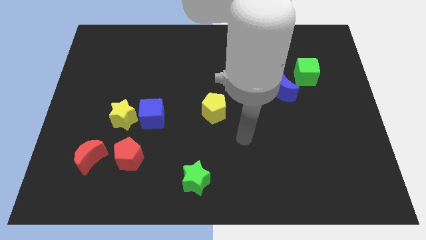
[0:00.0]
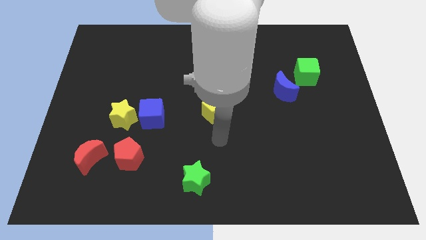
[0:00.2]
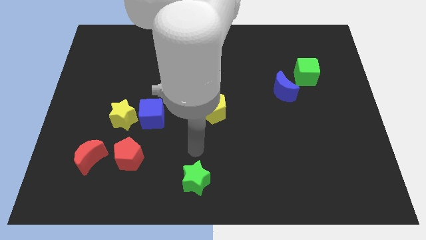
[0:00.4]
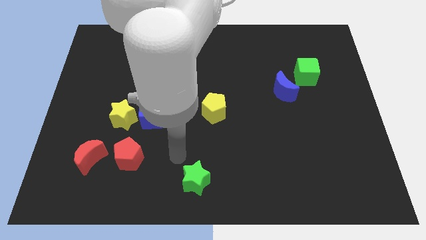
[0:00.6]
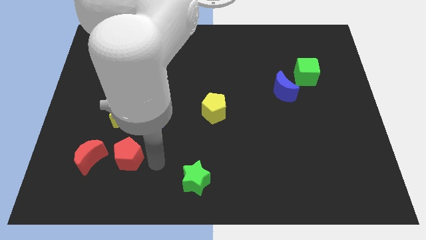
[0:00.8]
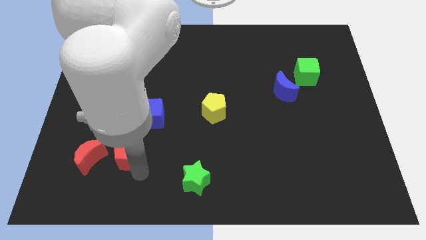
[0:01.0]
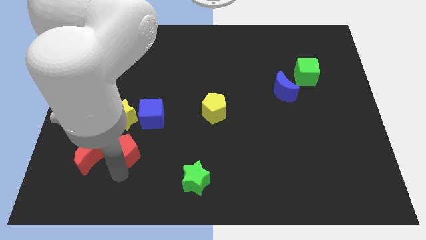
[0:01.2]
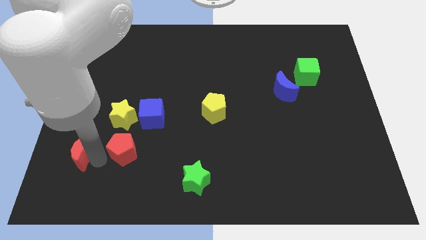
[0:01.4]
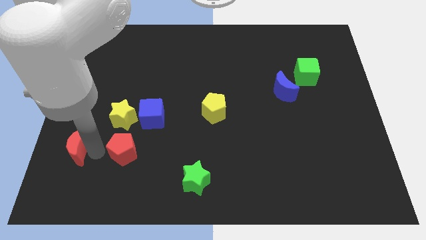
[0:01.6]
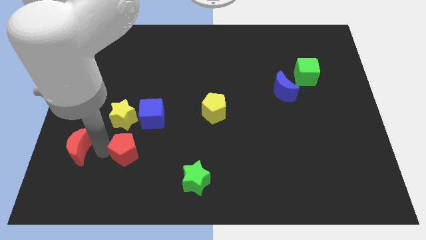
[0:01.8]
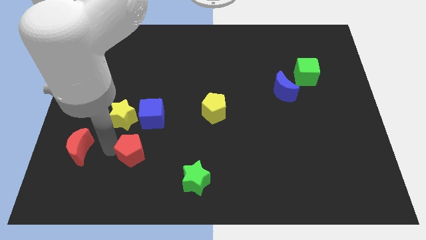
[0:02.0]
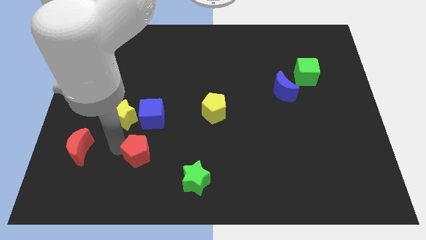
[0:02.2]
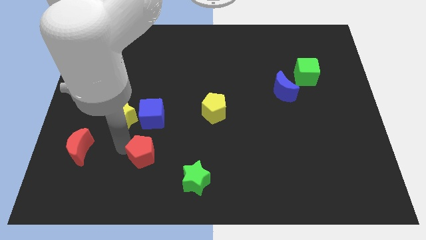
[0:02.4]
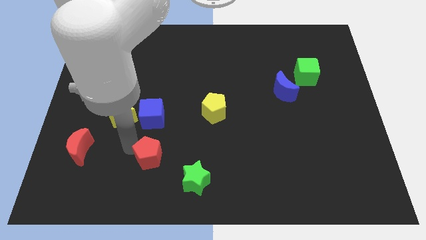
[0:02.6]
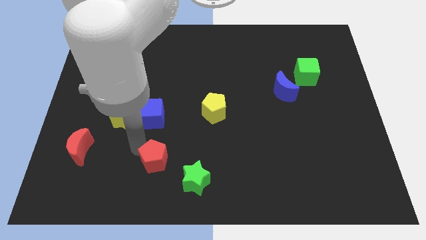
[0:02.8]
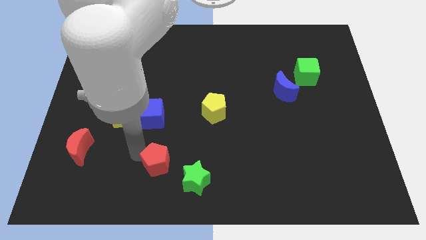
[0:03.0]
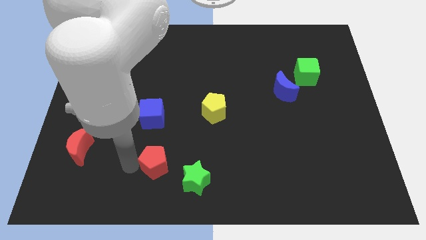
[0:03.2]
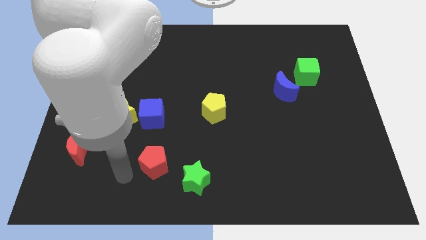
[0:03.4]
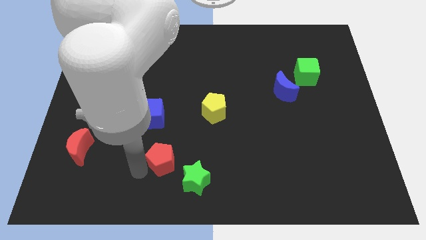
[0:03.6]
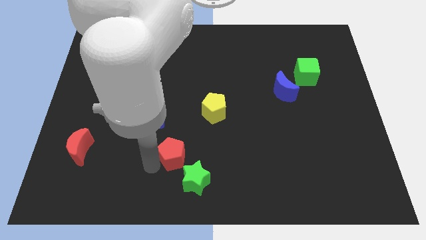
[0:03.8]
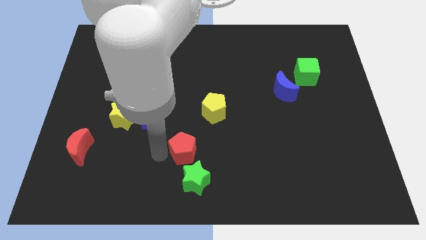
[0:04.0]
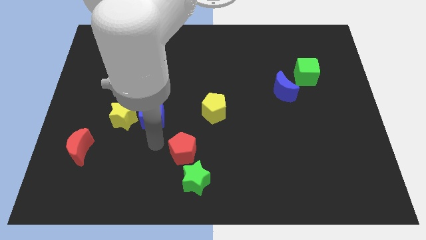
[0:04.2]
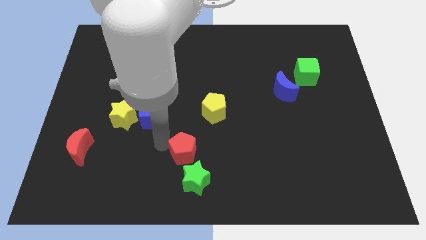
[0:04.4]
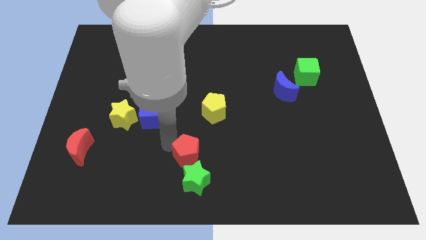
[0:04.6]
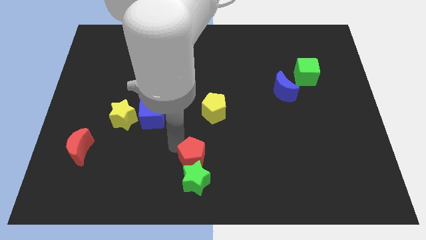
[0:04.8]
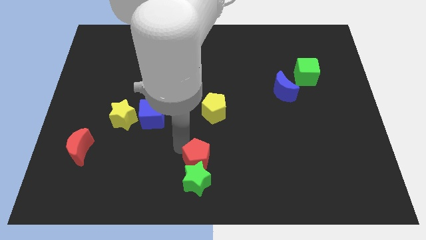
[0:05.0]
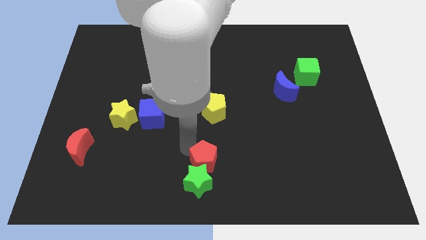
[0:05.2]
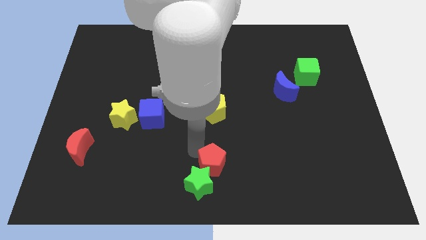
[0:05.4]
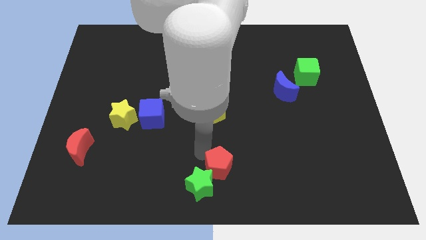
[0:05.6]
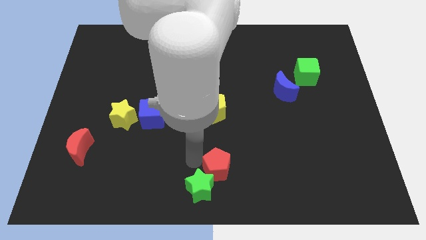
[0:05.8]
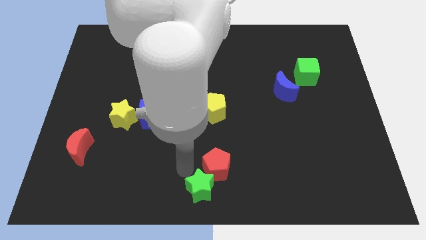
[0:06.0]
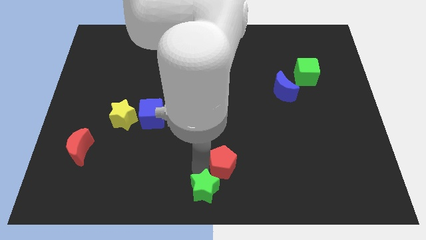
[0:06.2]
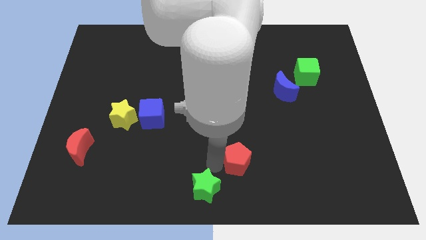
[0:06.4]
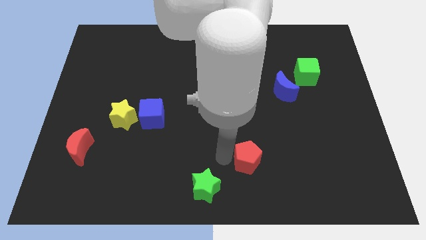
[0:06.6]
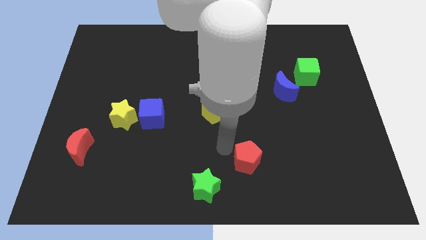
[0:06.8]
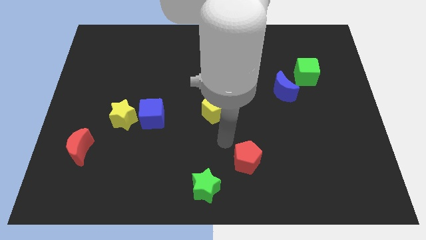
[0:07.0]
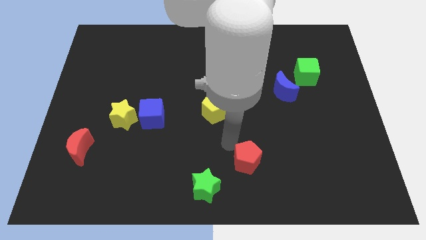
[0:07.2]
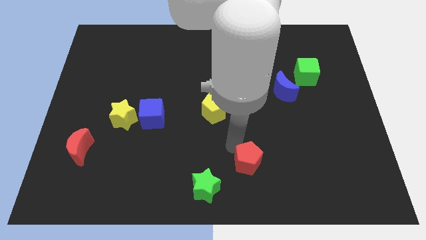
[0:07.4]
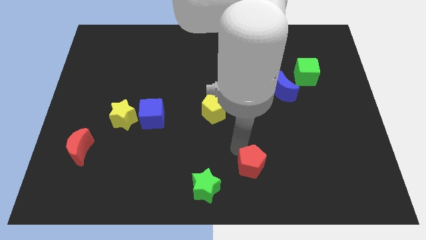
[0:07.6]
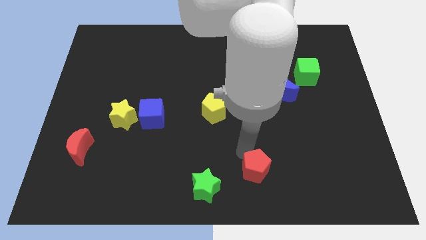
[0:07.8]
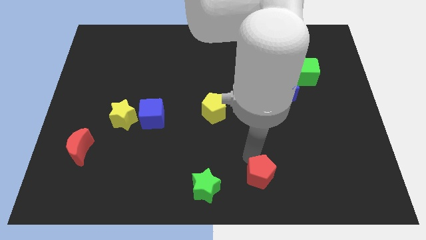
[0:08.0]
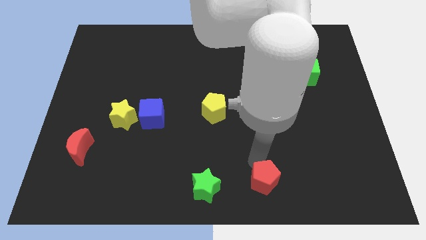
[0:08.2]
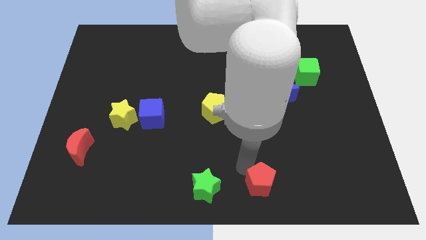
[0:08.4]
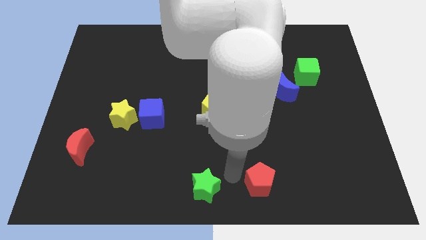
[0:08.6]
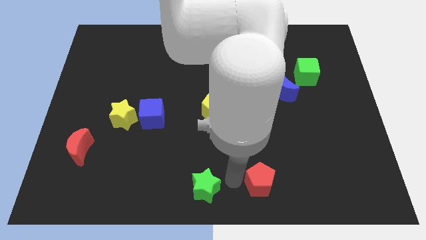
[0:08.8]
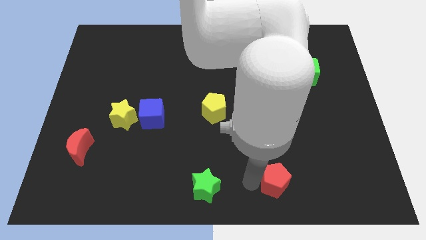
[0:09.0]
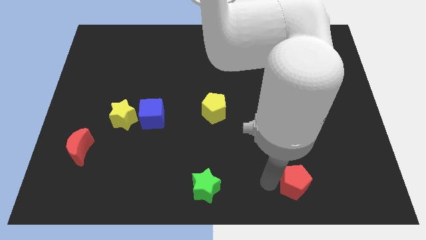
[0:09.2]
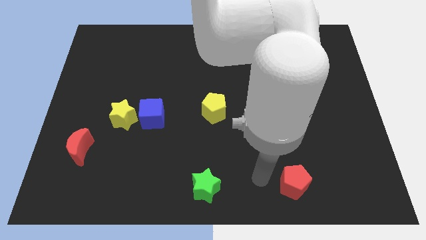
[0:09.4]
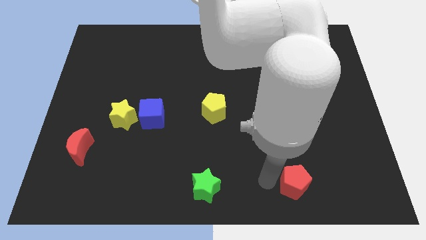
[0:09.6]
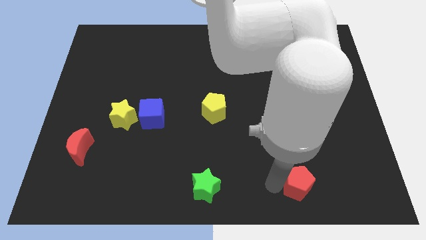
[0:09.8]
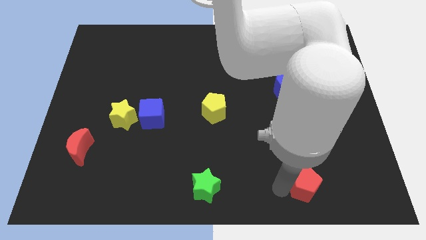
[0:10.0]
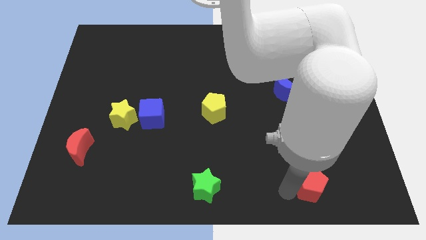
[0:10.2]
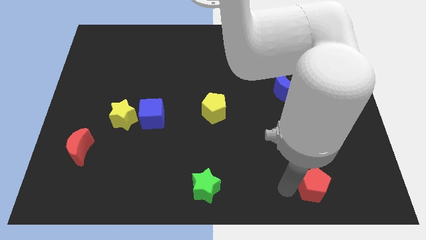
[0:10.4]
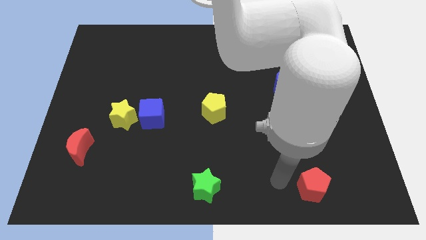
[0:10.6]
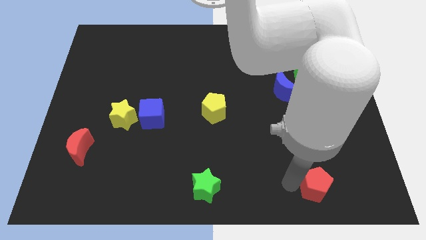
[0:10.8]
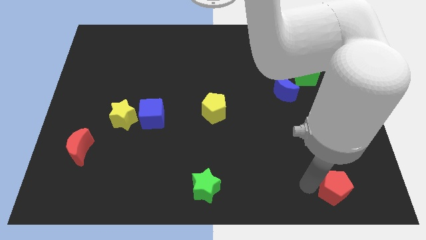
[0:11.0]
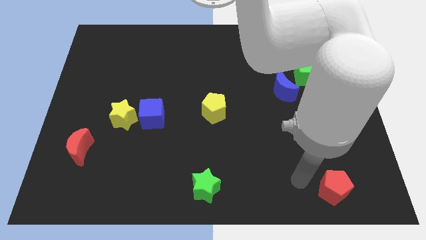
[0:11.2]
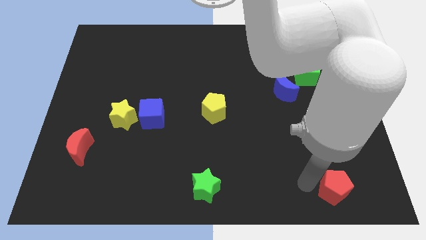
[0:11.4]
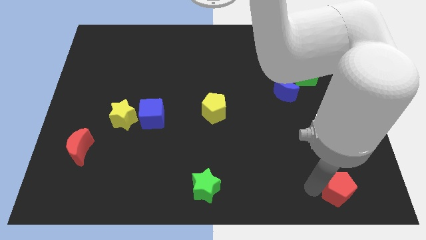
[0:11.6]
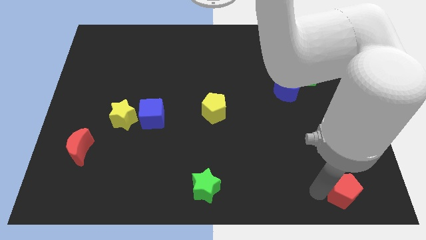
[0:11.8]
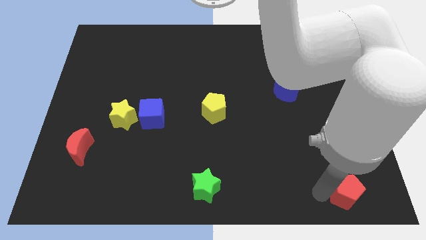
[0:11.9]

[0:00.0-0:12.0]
put the red pentagon to the bottom right of the board

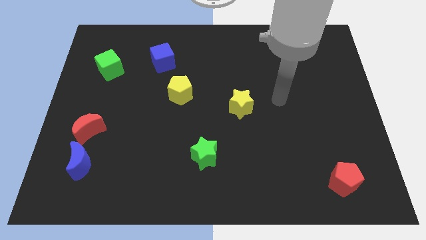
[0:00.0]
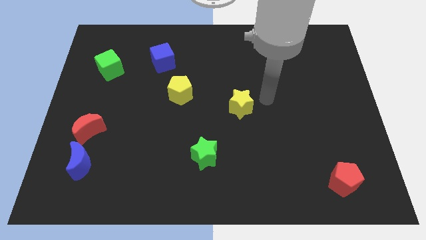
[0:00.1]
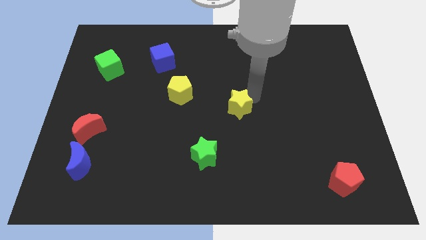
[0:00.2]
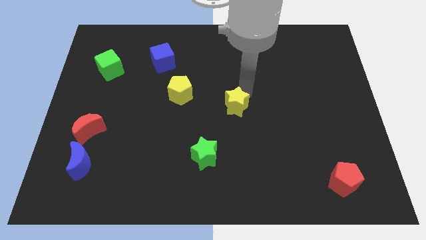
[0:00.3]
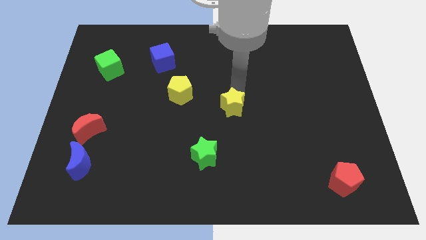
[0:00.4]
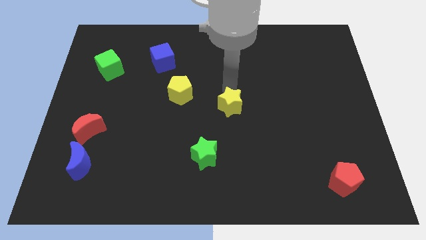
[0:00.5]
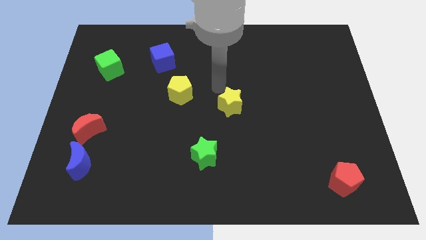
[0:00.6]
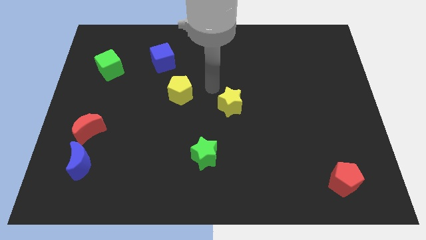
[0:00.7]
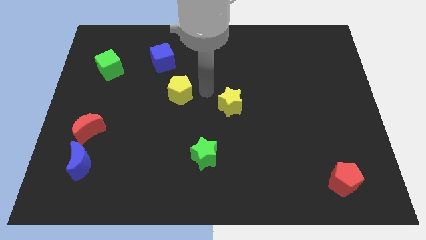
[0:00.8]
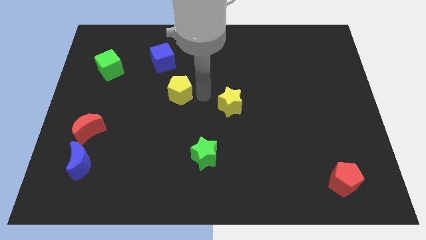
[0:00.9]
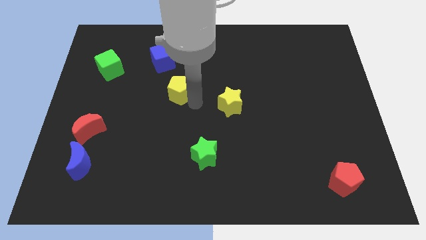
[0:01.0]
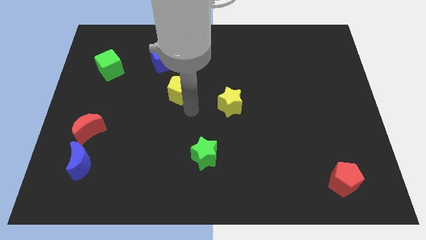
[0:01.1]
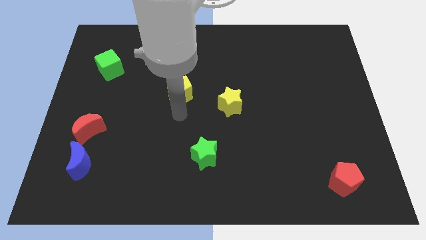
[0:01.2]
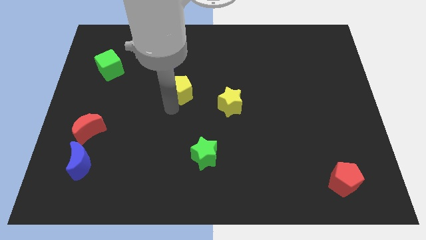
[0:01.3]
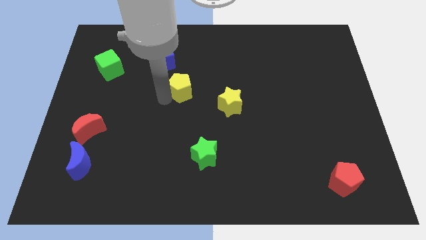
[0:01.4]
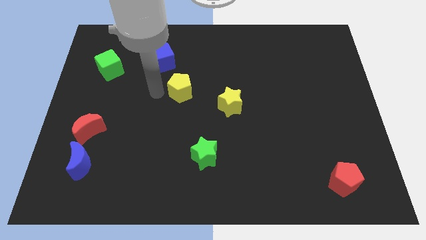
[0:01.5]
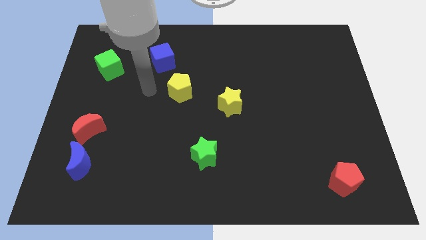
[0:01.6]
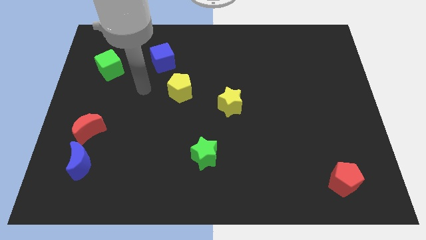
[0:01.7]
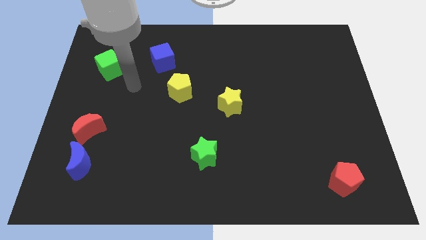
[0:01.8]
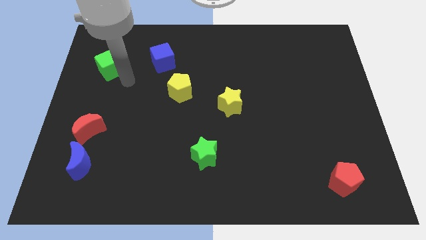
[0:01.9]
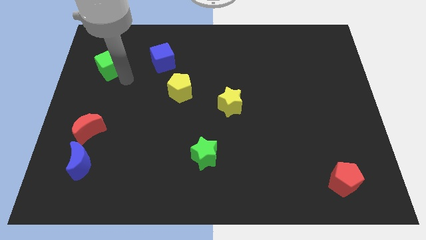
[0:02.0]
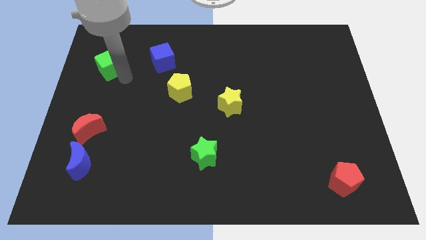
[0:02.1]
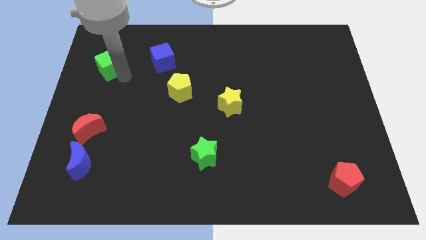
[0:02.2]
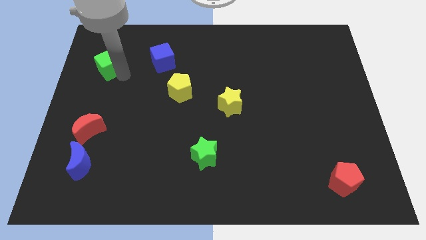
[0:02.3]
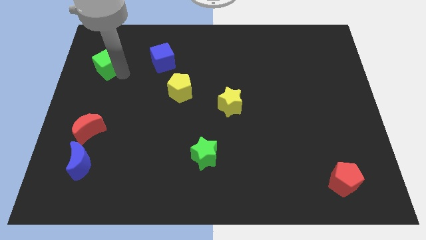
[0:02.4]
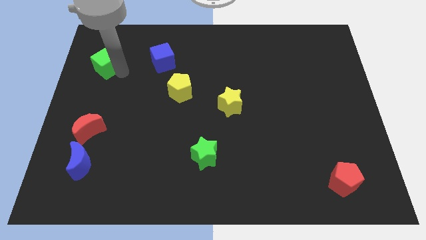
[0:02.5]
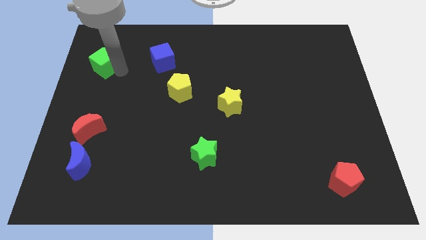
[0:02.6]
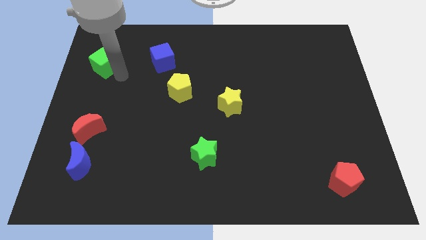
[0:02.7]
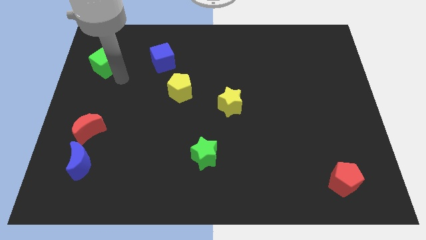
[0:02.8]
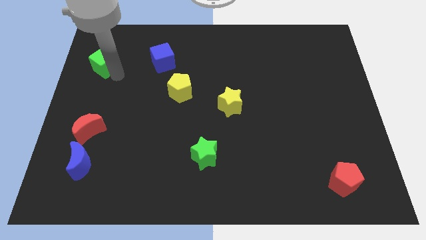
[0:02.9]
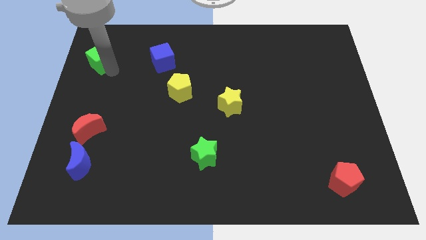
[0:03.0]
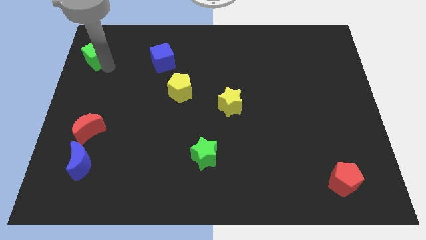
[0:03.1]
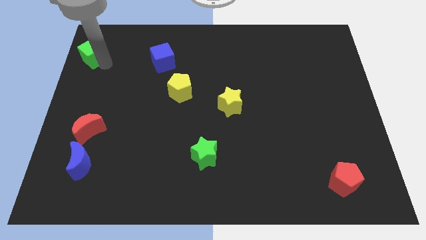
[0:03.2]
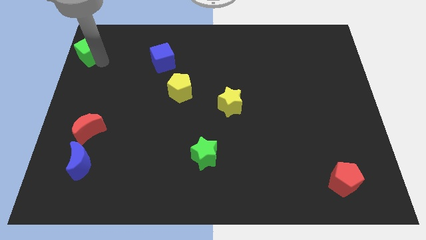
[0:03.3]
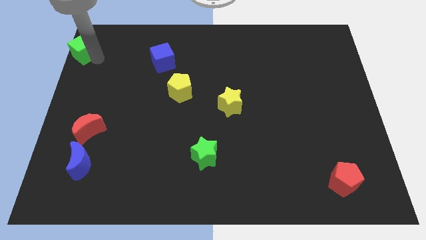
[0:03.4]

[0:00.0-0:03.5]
put the green cube to the upper left corner
